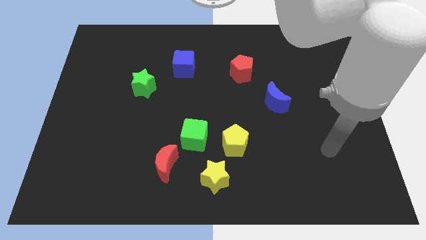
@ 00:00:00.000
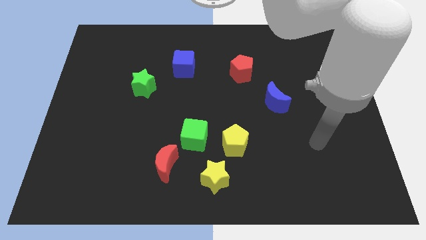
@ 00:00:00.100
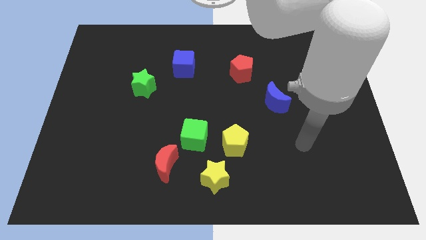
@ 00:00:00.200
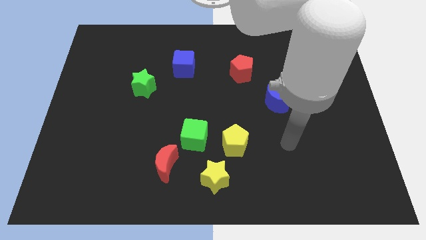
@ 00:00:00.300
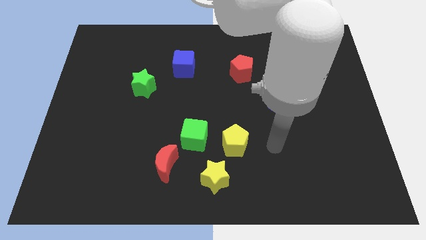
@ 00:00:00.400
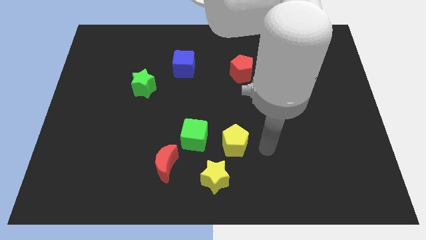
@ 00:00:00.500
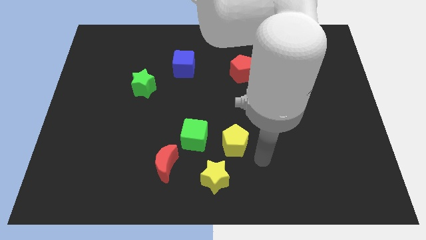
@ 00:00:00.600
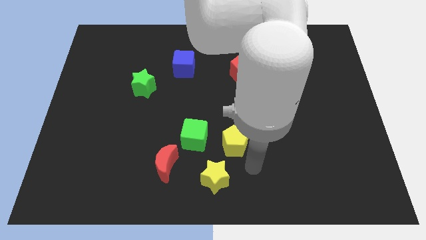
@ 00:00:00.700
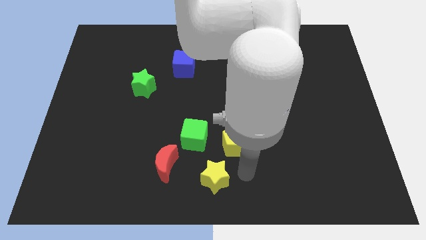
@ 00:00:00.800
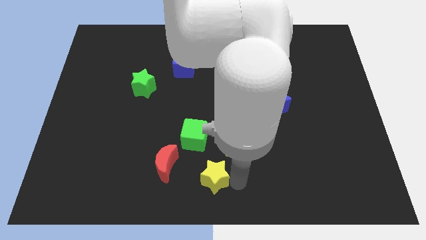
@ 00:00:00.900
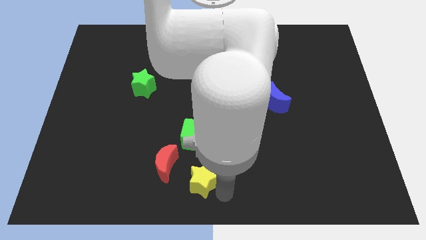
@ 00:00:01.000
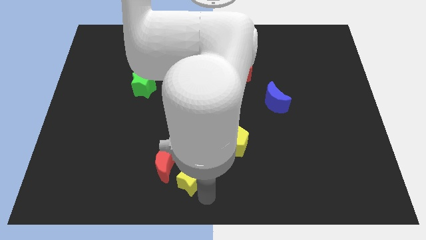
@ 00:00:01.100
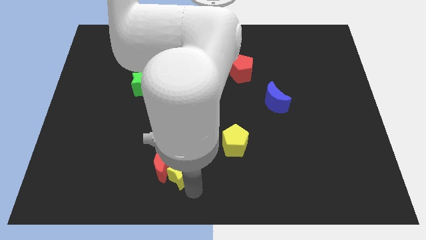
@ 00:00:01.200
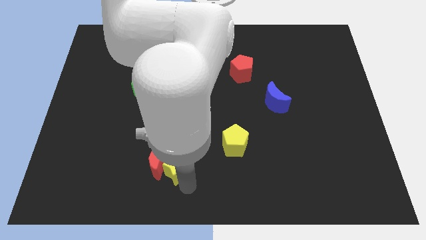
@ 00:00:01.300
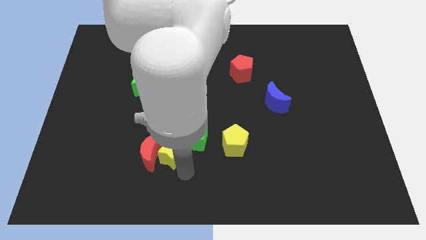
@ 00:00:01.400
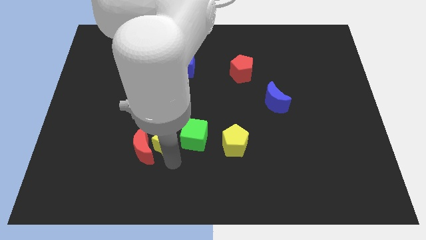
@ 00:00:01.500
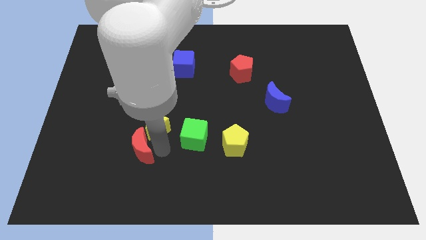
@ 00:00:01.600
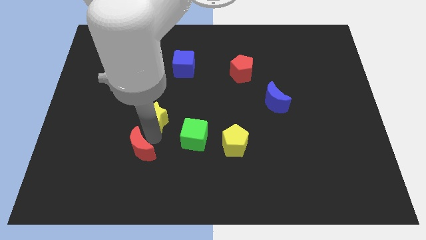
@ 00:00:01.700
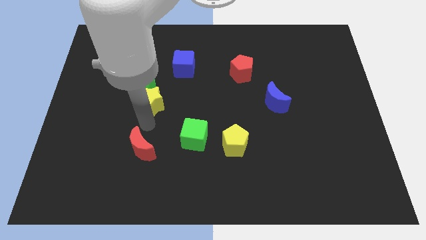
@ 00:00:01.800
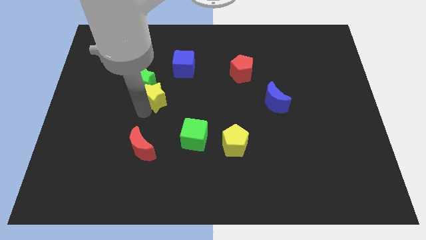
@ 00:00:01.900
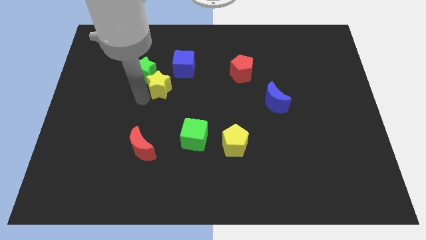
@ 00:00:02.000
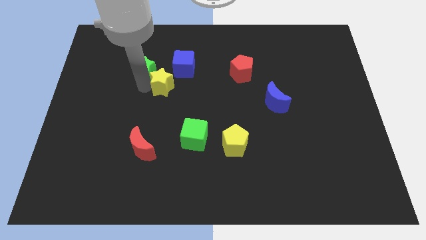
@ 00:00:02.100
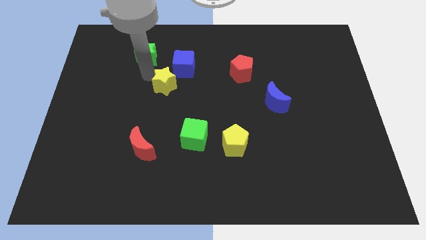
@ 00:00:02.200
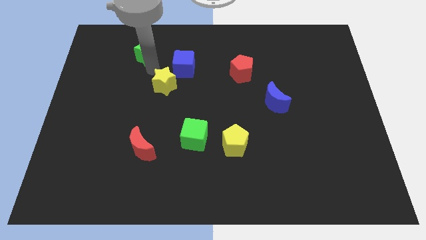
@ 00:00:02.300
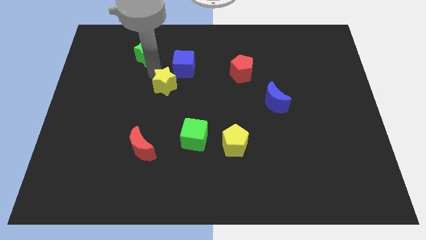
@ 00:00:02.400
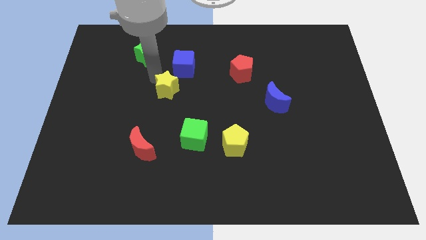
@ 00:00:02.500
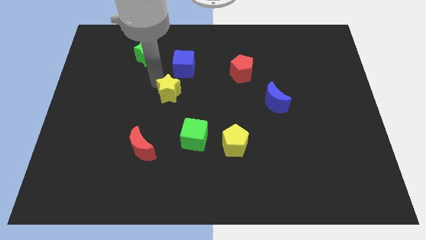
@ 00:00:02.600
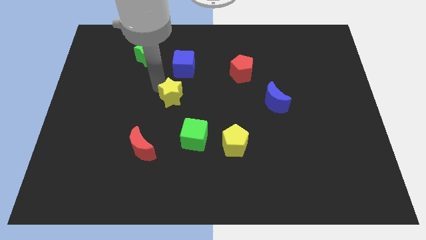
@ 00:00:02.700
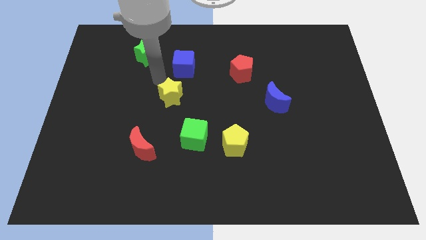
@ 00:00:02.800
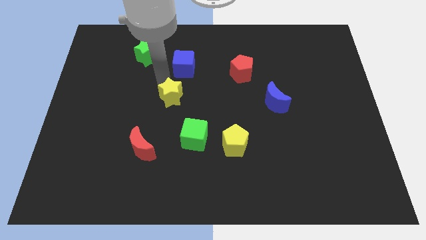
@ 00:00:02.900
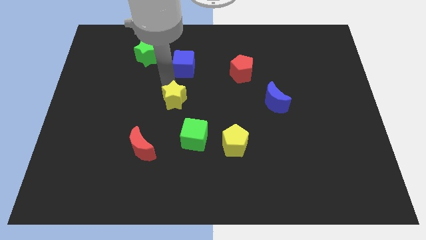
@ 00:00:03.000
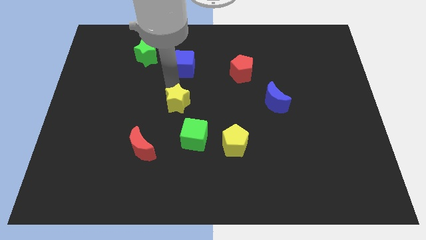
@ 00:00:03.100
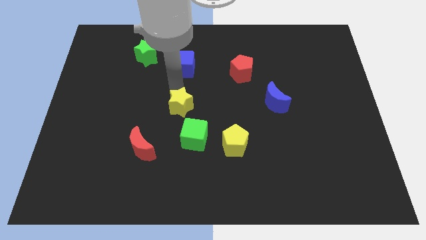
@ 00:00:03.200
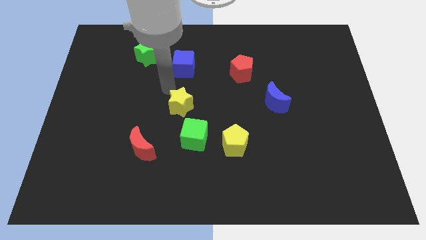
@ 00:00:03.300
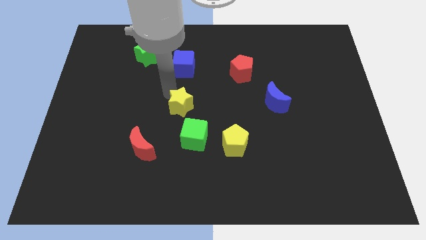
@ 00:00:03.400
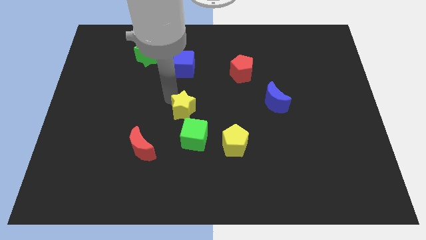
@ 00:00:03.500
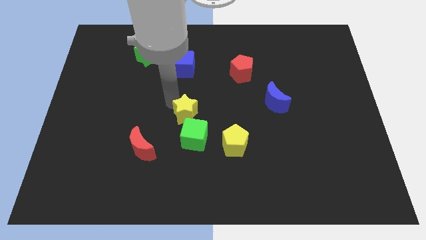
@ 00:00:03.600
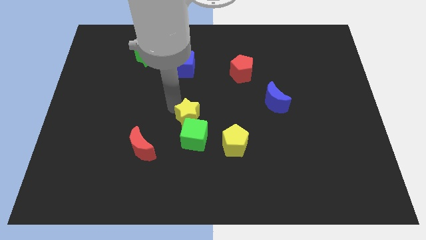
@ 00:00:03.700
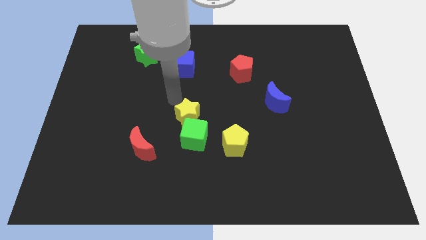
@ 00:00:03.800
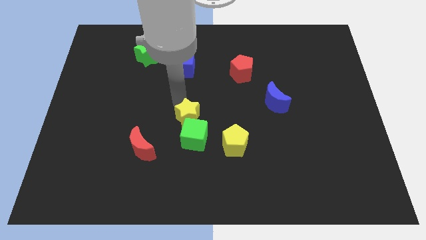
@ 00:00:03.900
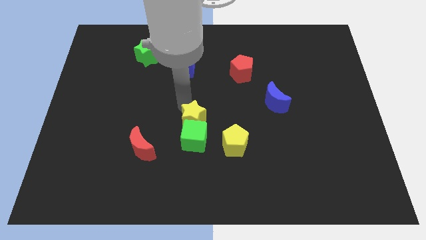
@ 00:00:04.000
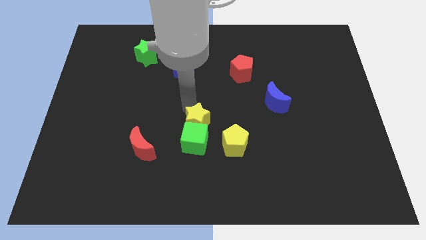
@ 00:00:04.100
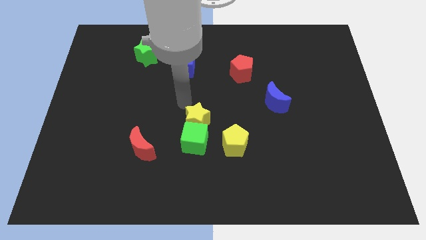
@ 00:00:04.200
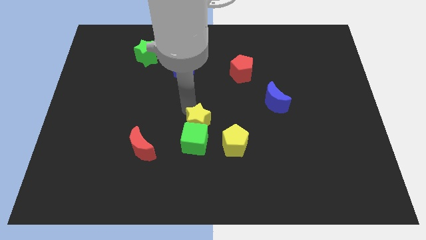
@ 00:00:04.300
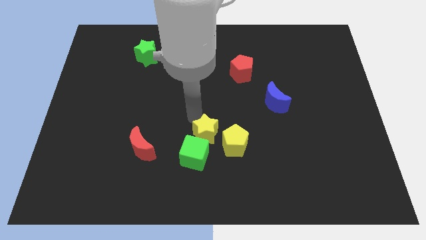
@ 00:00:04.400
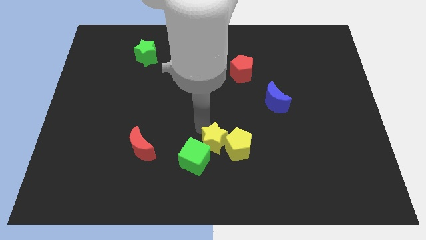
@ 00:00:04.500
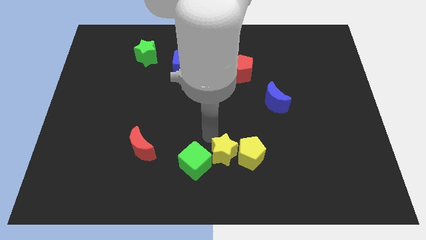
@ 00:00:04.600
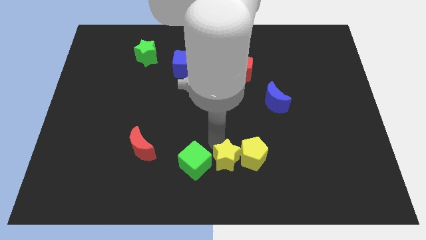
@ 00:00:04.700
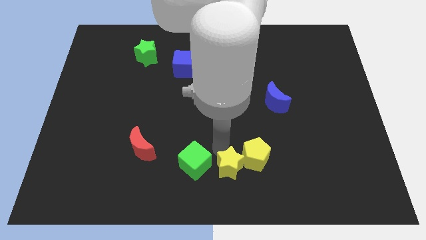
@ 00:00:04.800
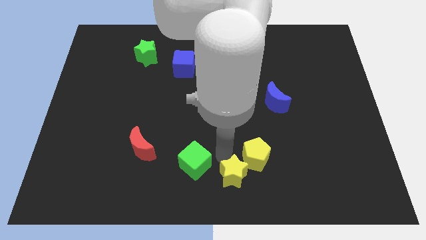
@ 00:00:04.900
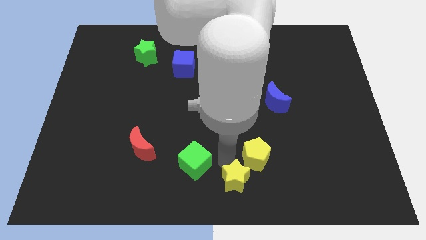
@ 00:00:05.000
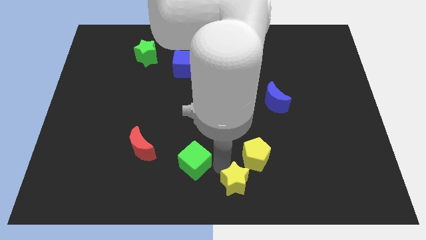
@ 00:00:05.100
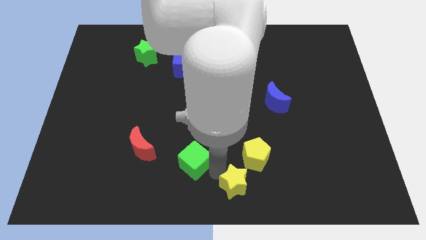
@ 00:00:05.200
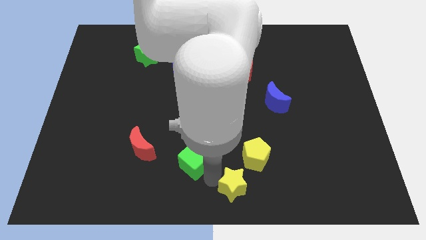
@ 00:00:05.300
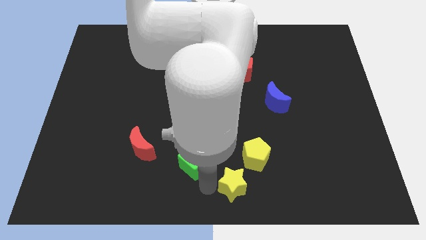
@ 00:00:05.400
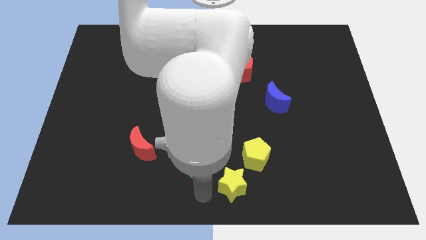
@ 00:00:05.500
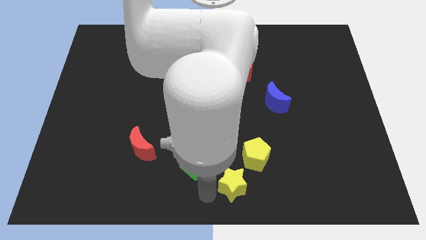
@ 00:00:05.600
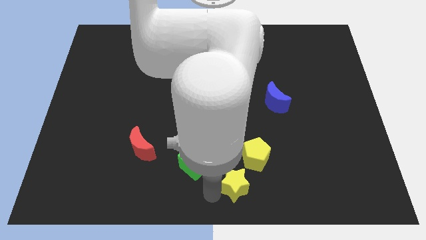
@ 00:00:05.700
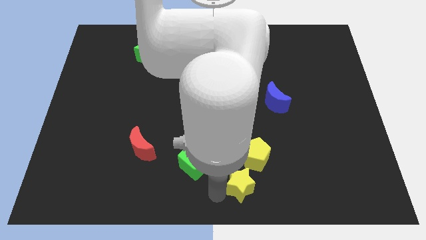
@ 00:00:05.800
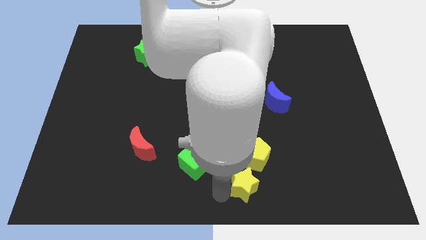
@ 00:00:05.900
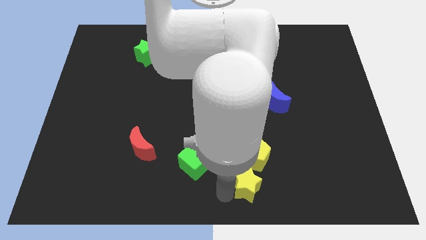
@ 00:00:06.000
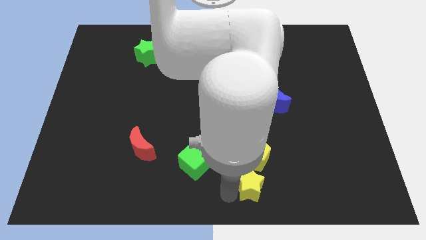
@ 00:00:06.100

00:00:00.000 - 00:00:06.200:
slide the yellow star a little bit to the right

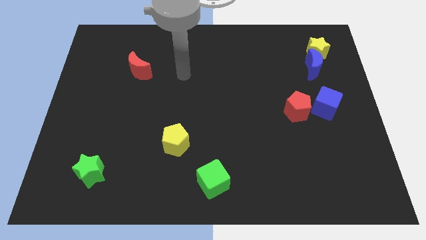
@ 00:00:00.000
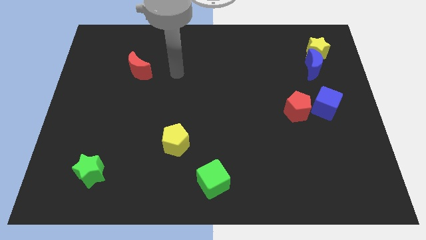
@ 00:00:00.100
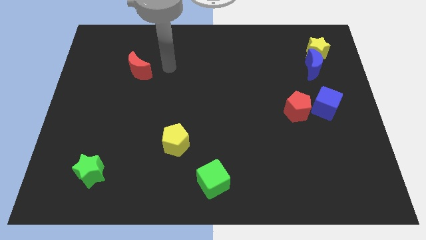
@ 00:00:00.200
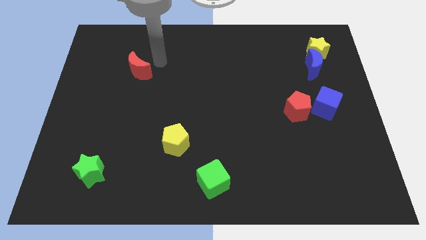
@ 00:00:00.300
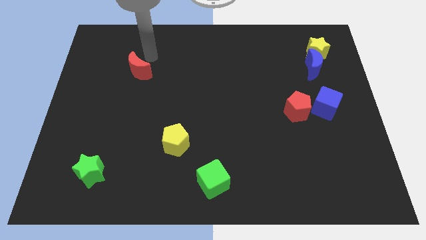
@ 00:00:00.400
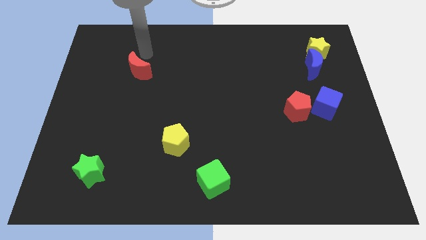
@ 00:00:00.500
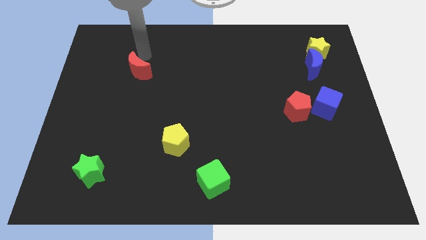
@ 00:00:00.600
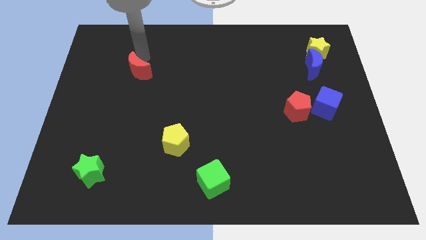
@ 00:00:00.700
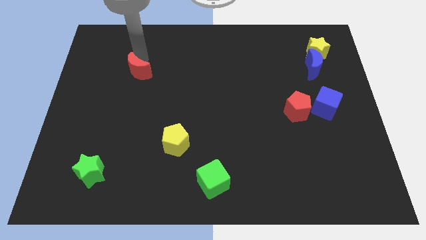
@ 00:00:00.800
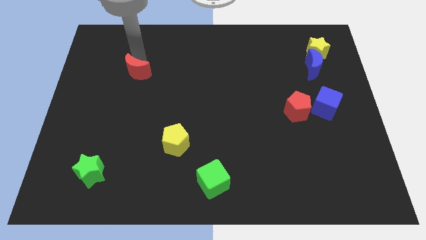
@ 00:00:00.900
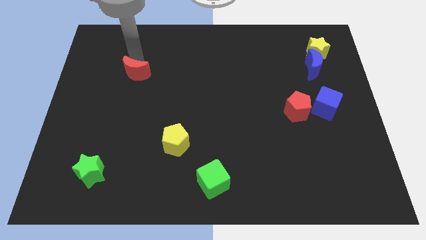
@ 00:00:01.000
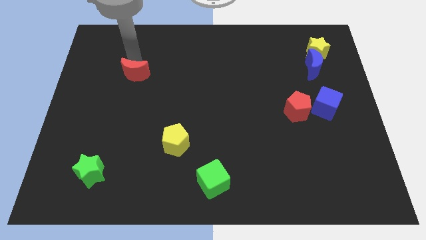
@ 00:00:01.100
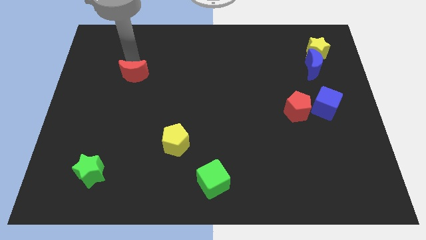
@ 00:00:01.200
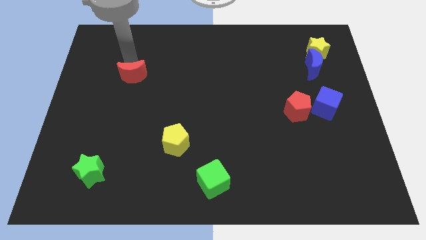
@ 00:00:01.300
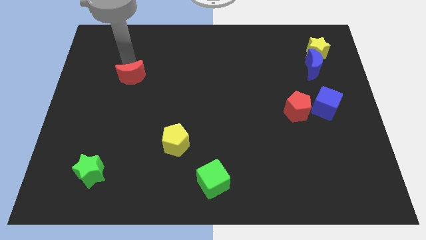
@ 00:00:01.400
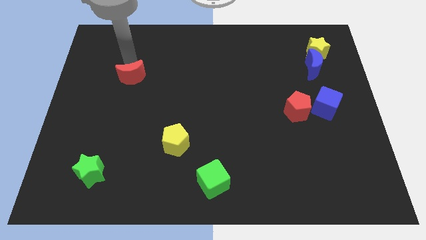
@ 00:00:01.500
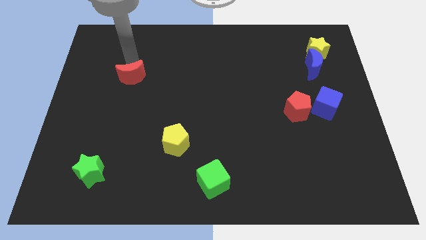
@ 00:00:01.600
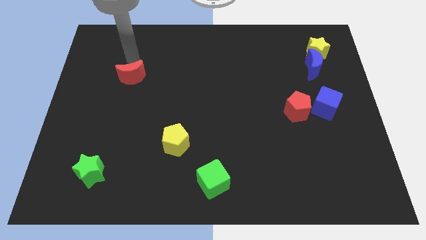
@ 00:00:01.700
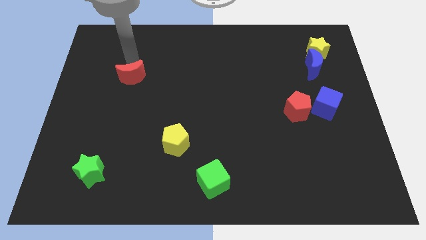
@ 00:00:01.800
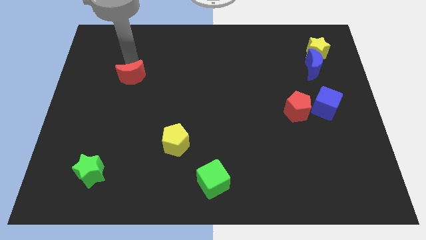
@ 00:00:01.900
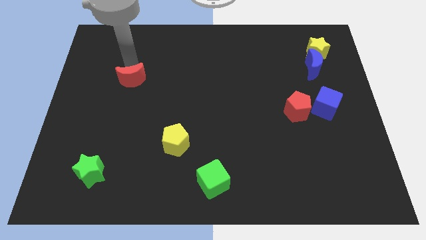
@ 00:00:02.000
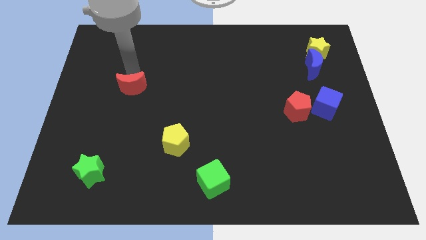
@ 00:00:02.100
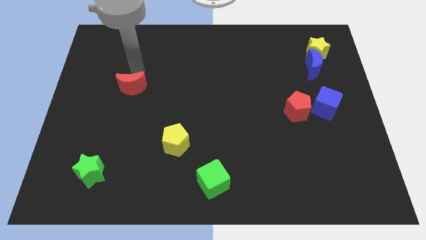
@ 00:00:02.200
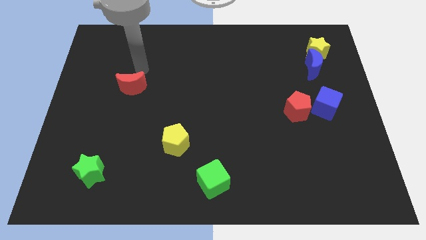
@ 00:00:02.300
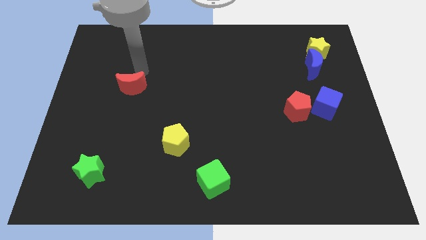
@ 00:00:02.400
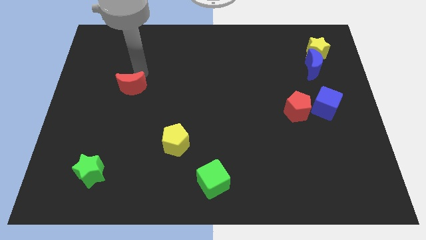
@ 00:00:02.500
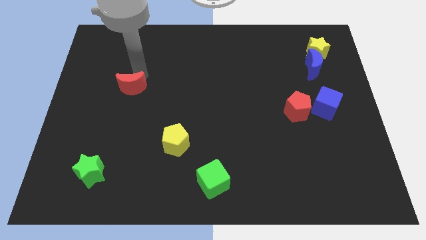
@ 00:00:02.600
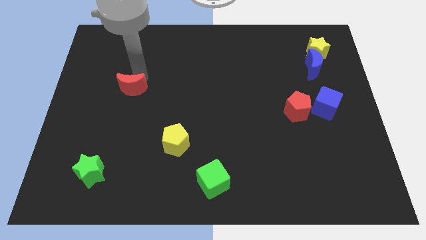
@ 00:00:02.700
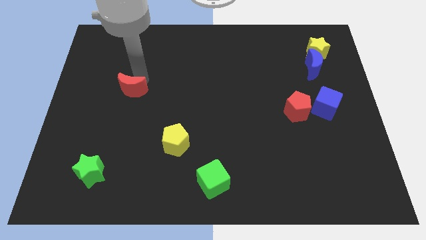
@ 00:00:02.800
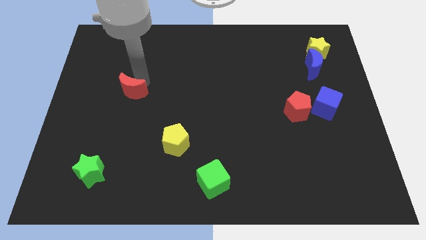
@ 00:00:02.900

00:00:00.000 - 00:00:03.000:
move the red moon down slightly
